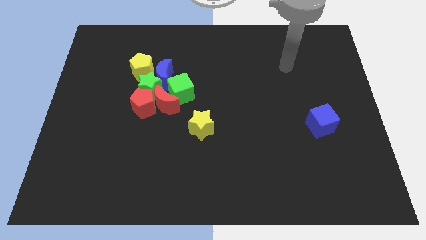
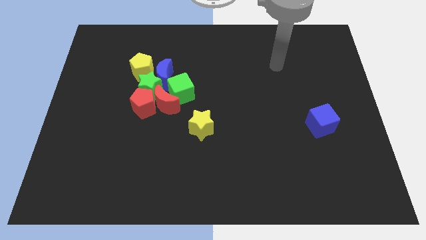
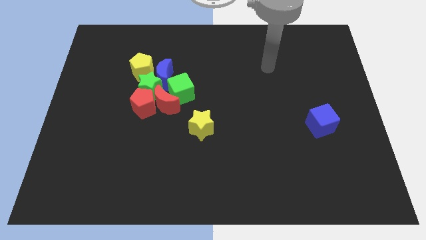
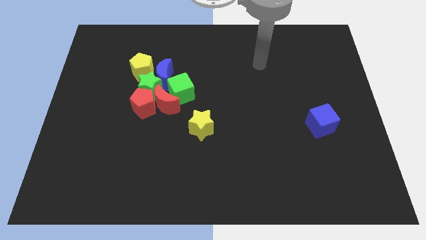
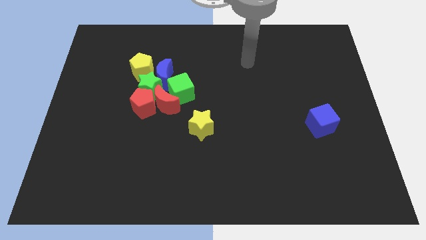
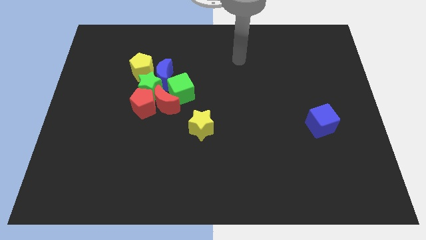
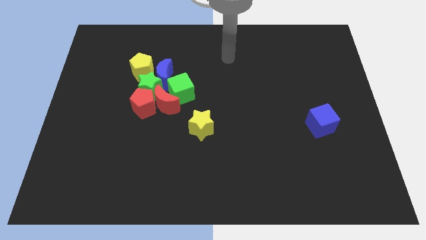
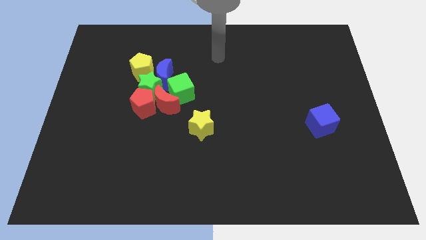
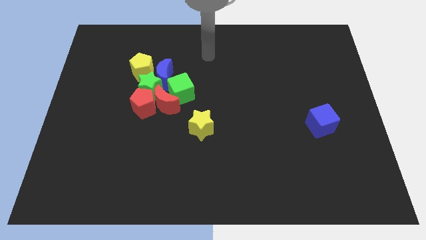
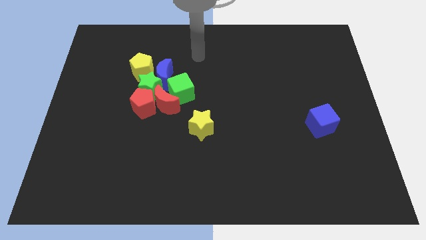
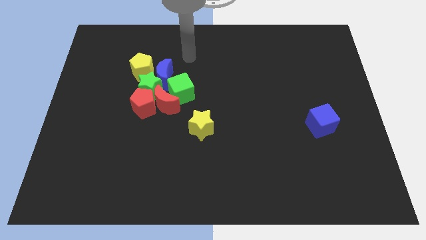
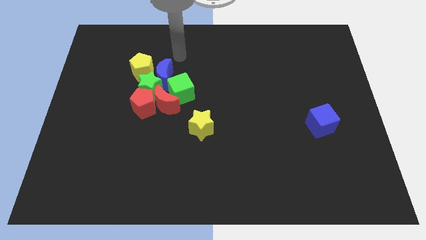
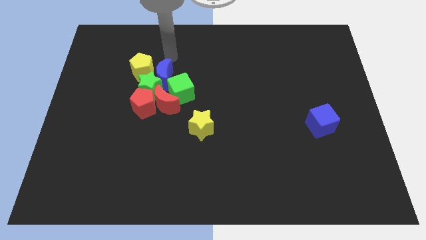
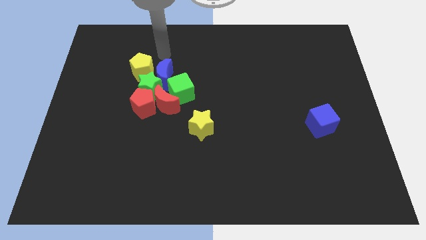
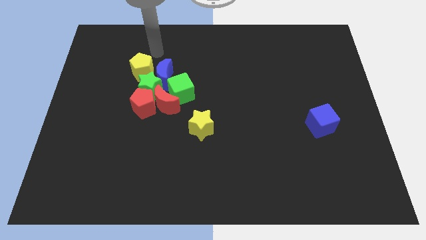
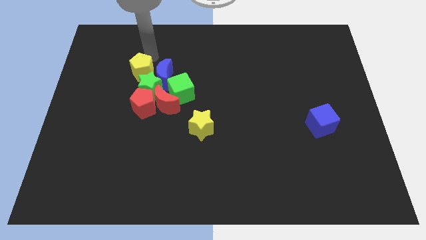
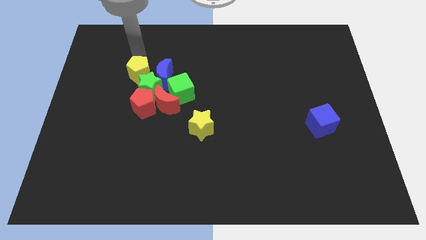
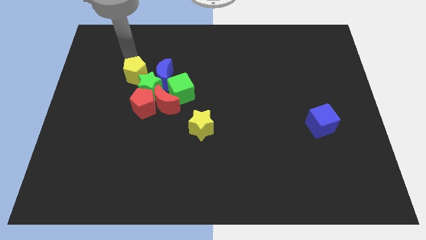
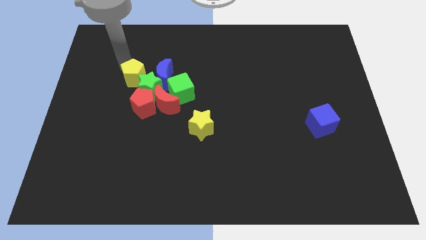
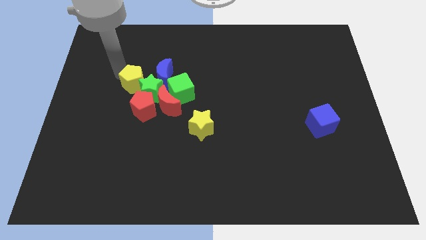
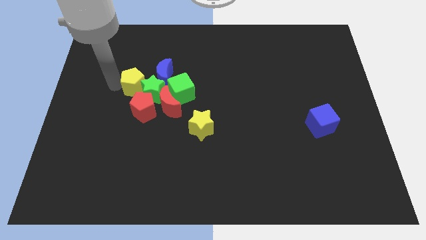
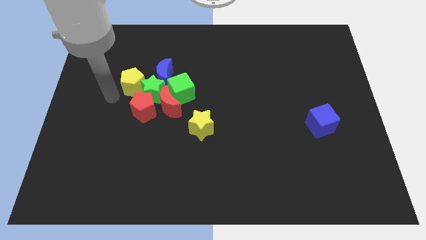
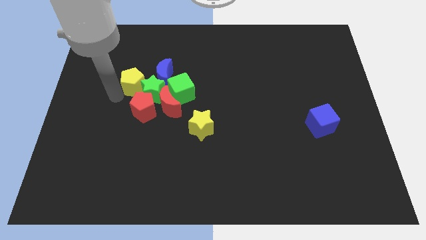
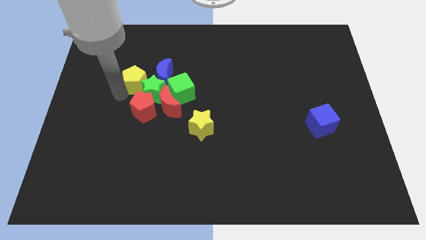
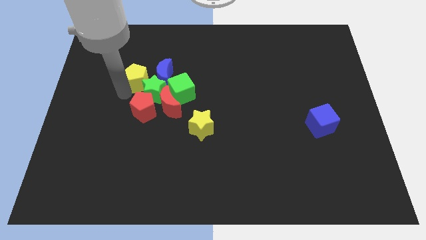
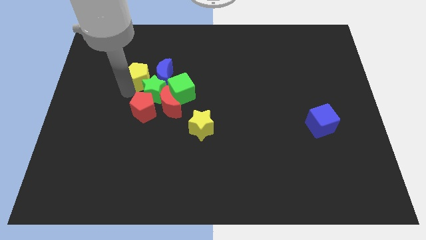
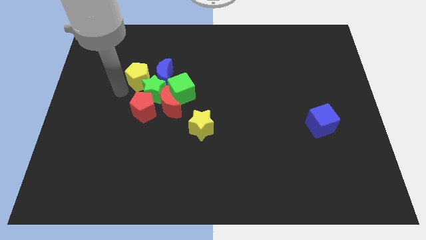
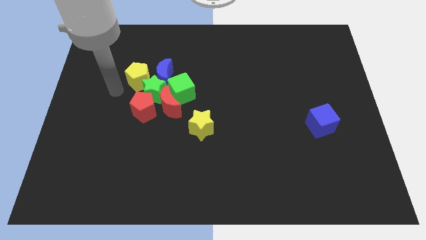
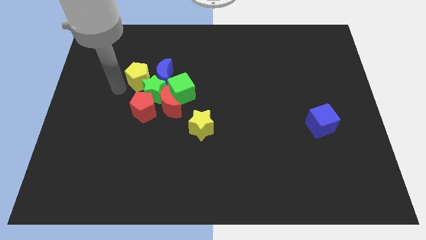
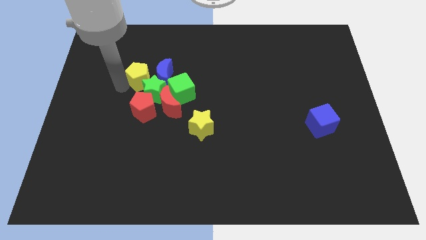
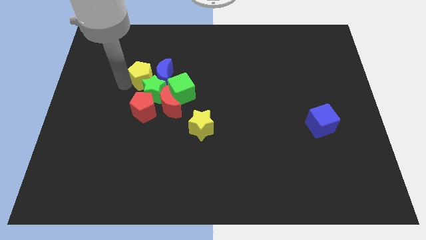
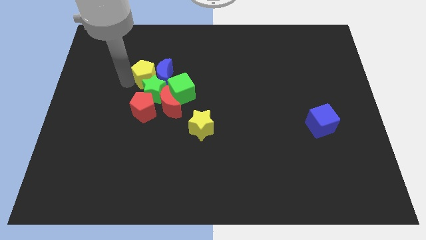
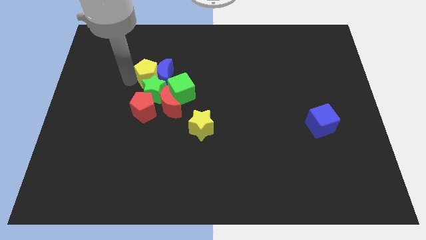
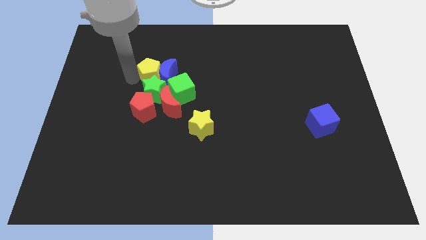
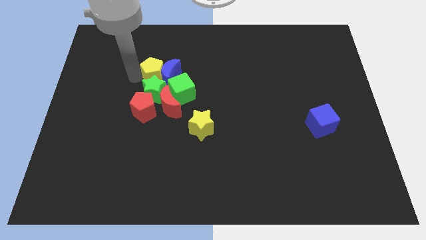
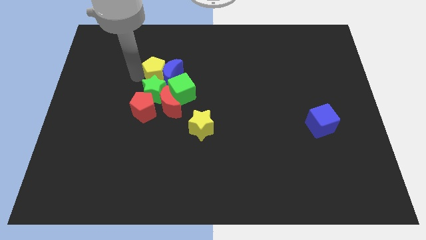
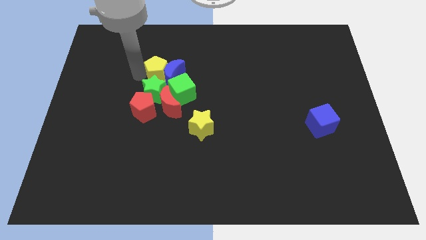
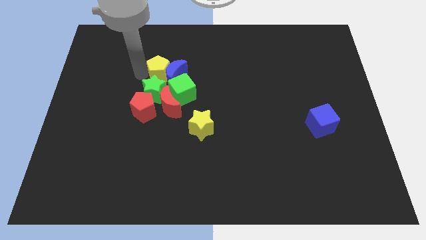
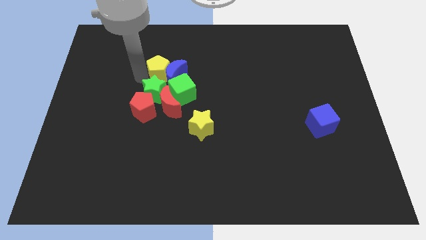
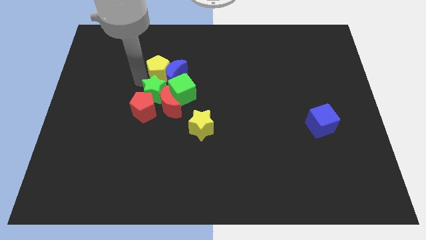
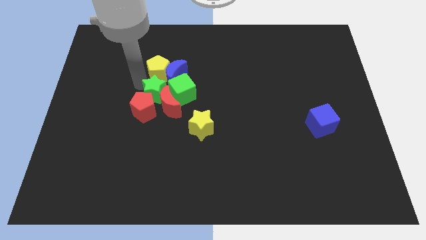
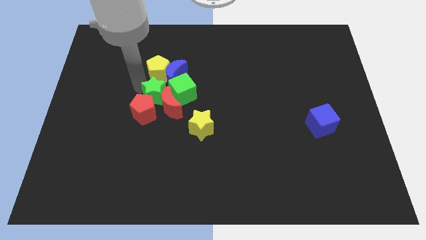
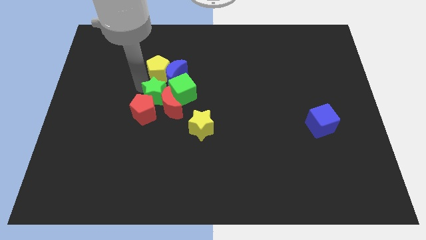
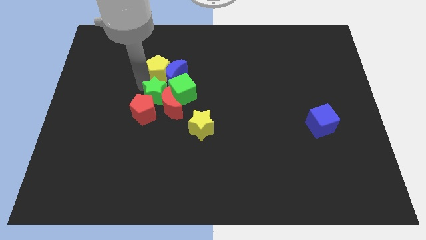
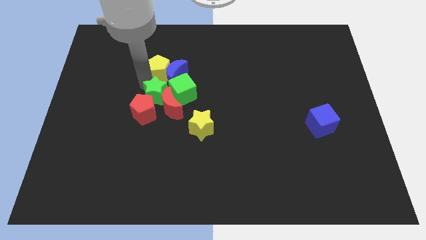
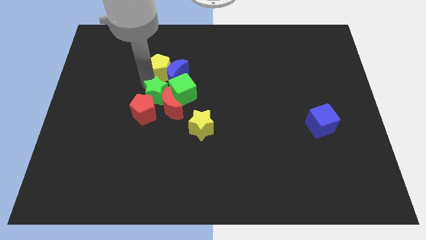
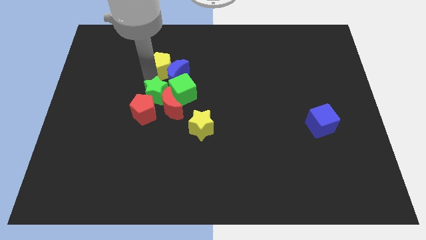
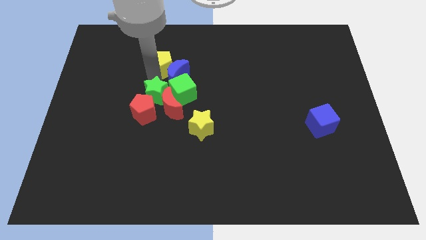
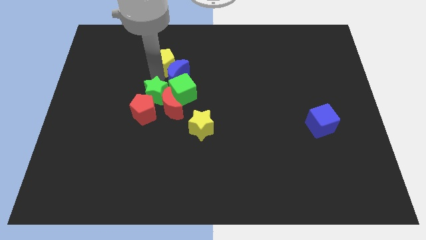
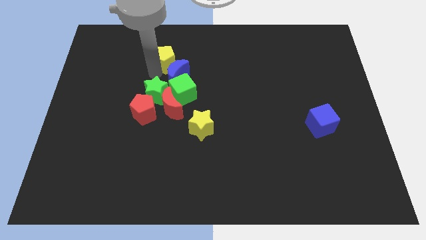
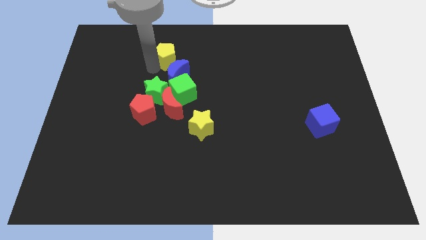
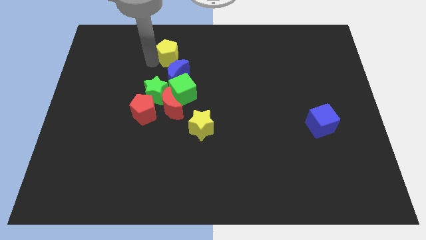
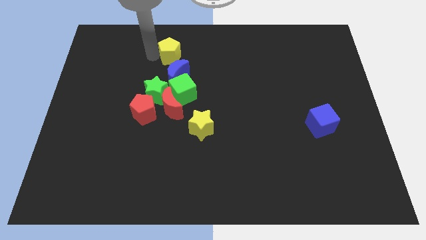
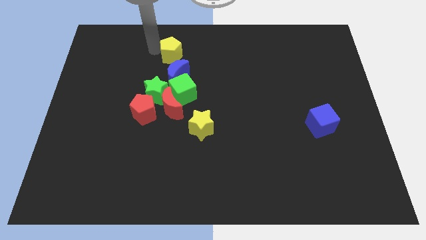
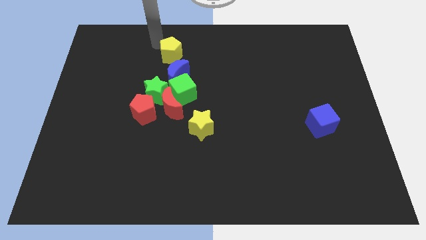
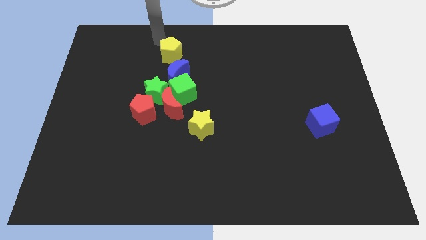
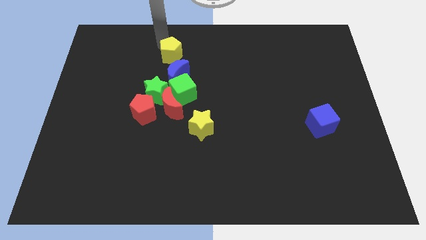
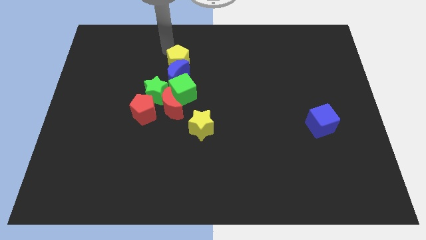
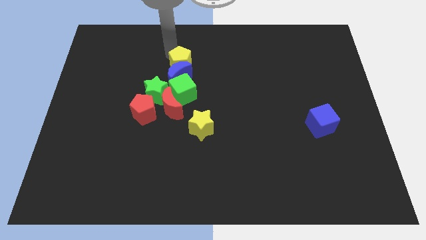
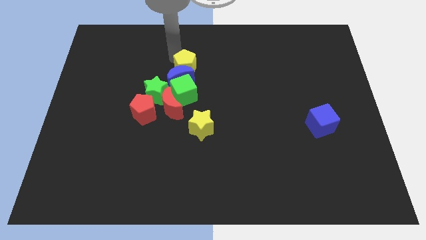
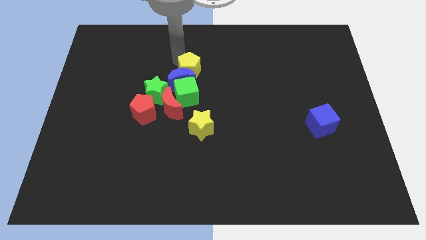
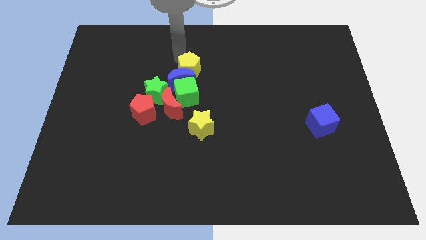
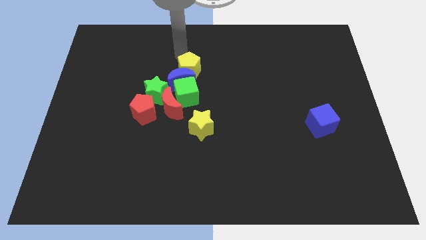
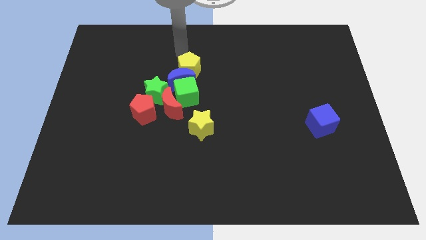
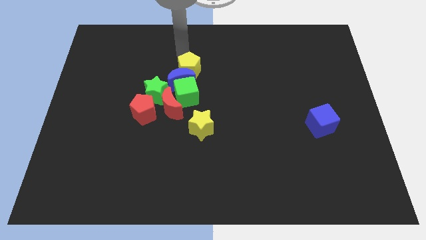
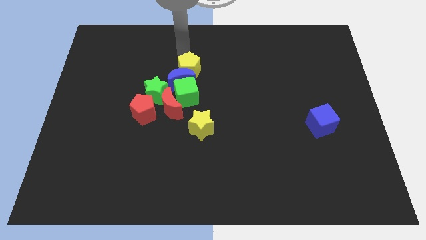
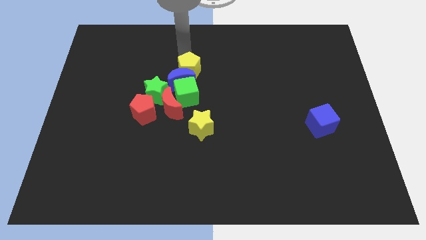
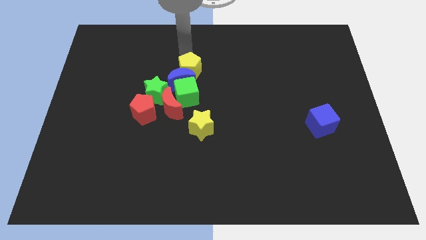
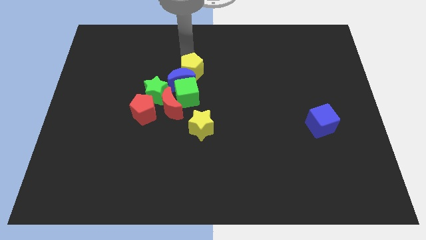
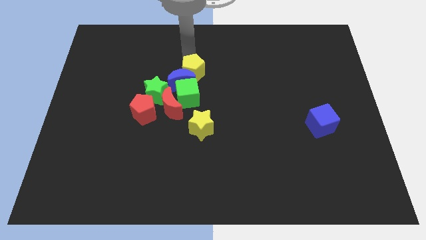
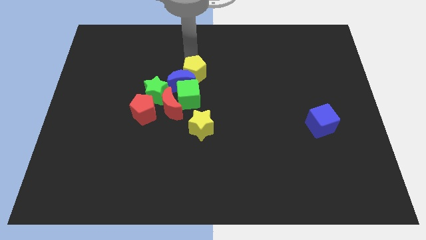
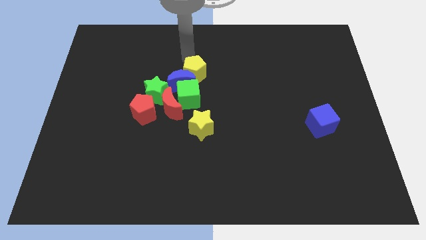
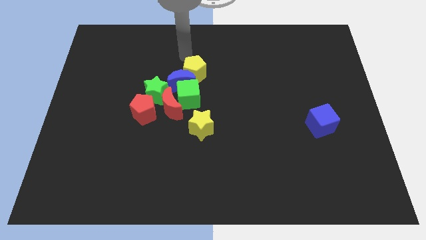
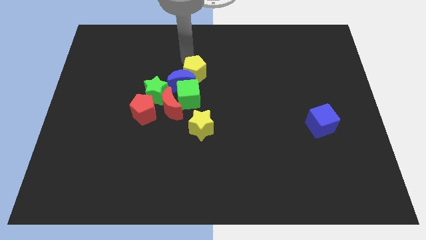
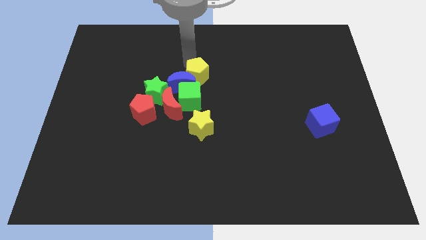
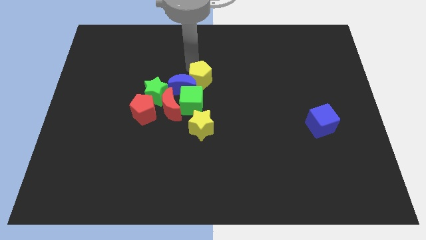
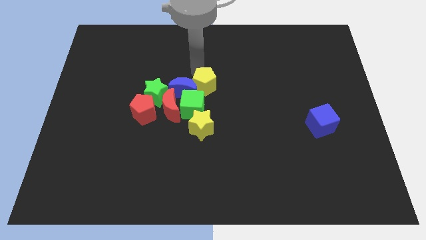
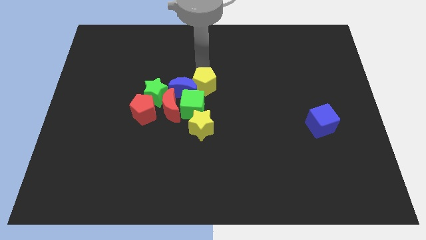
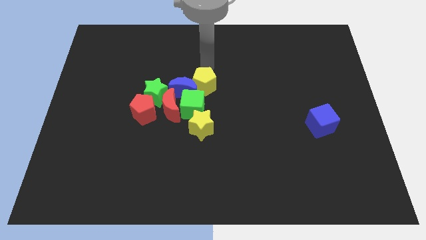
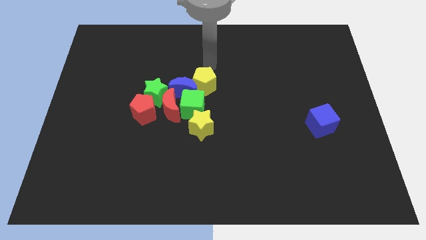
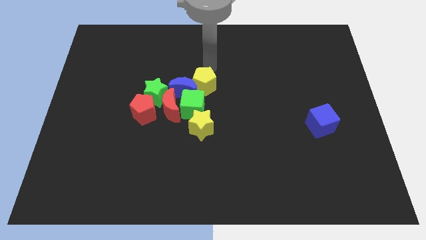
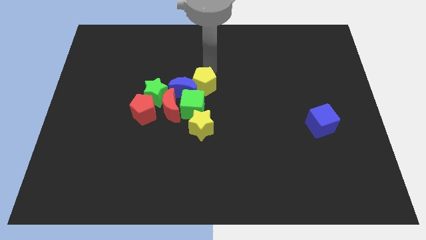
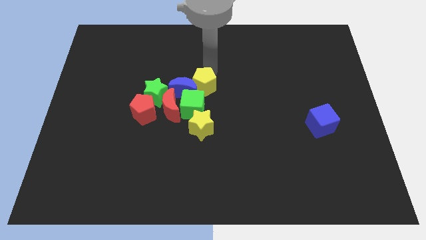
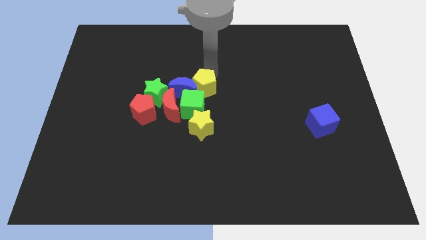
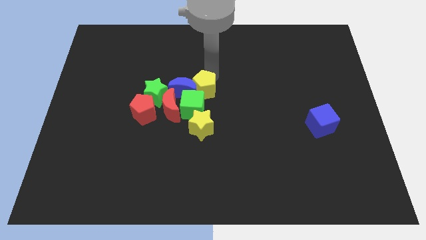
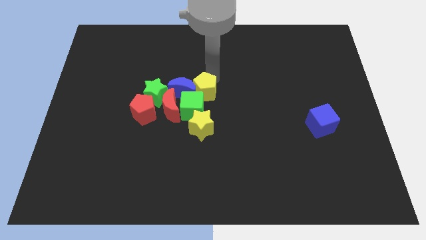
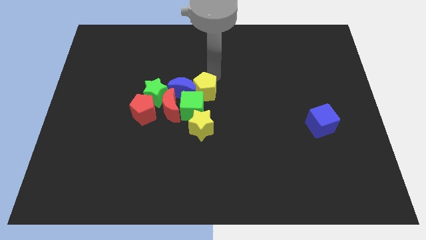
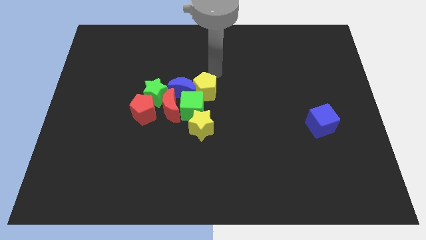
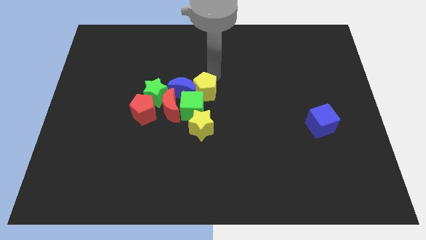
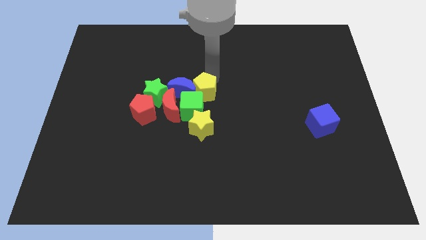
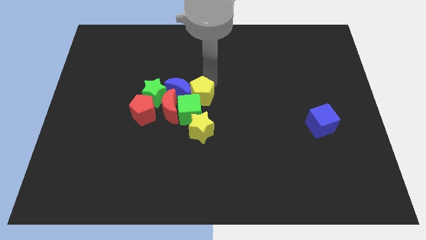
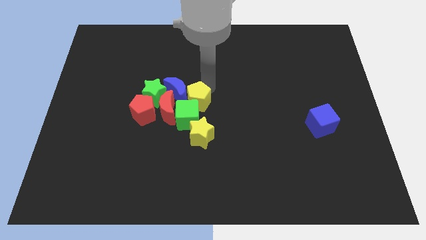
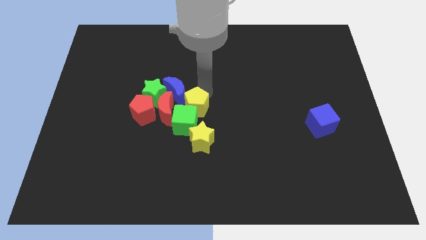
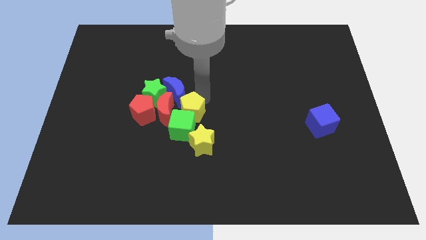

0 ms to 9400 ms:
put the yellow pentagon diagonally up and to the left of the yellow star
